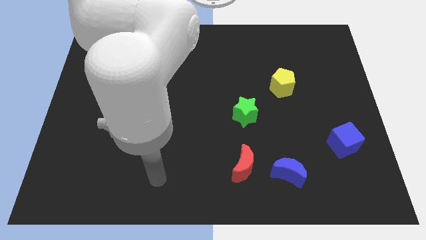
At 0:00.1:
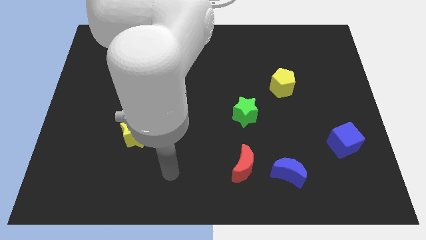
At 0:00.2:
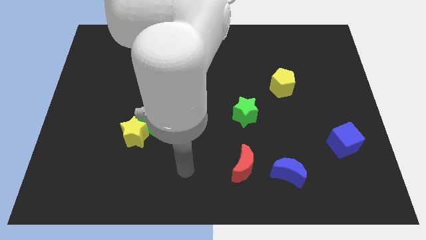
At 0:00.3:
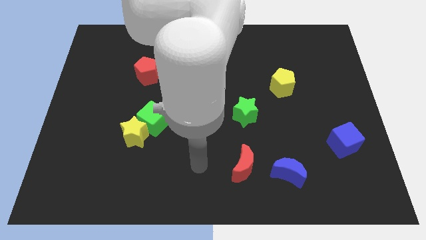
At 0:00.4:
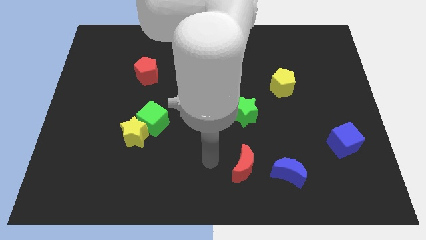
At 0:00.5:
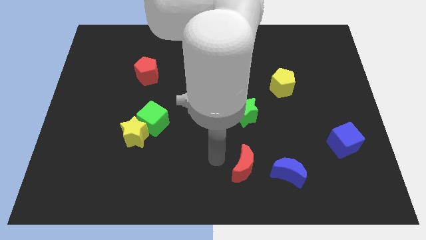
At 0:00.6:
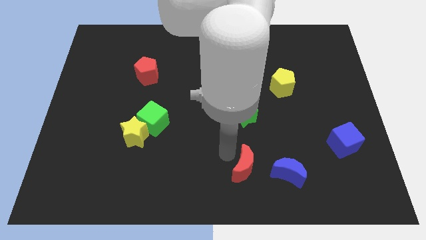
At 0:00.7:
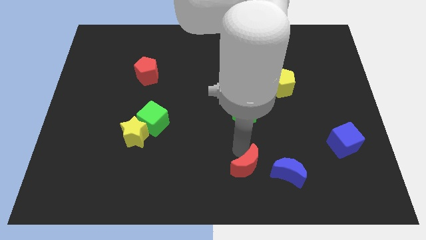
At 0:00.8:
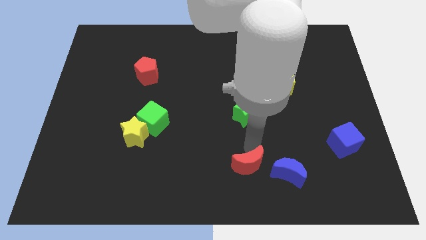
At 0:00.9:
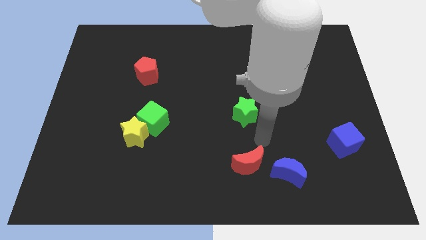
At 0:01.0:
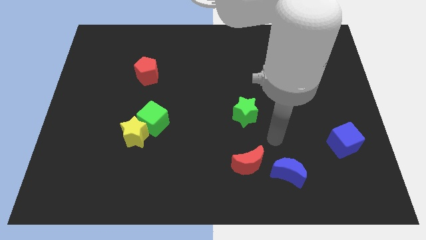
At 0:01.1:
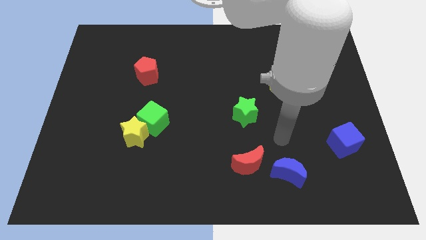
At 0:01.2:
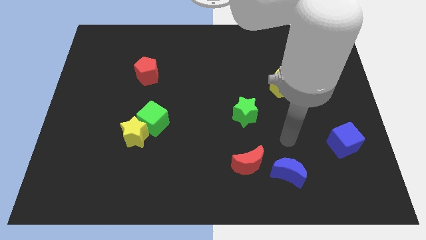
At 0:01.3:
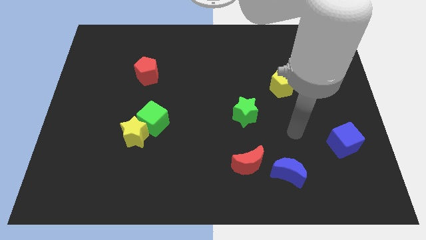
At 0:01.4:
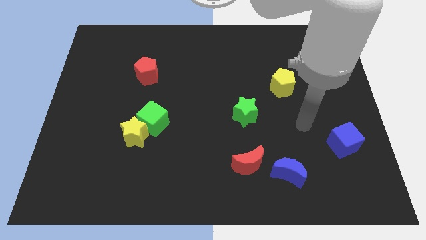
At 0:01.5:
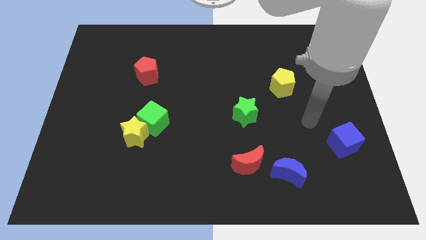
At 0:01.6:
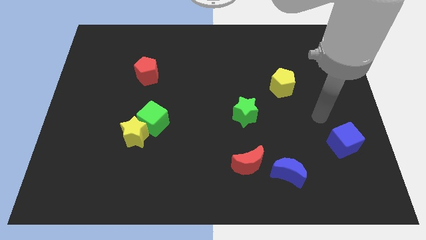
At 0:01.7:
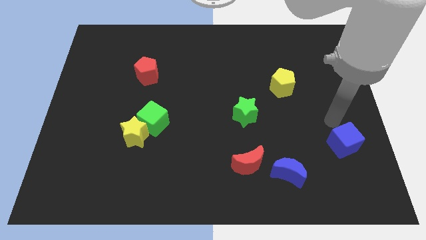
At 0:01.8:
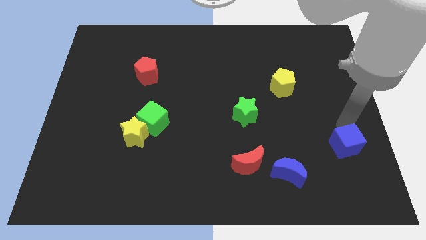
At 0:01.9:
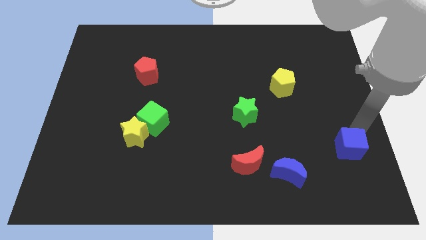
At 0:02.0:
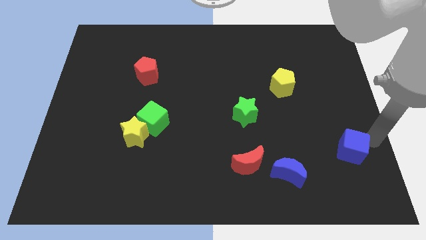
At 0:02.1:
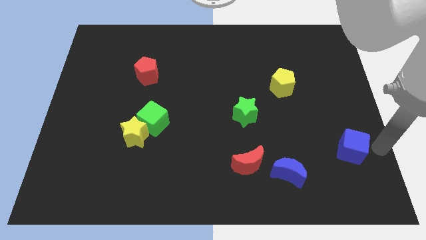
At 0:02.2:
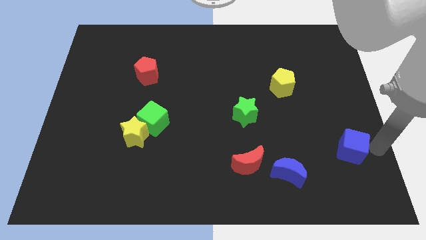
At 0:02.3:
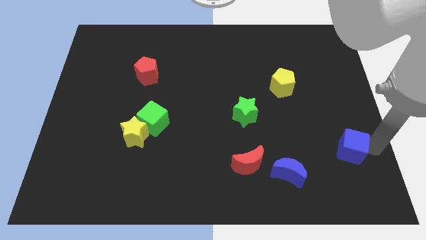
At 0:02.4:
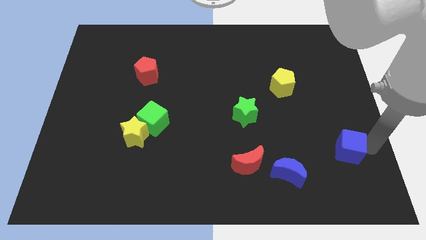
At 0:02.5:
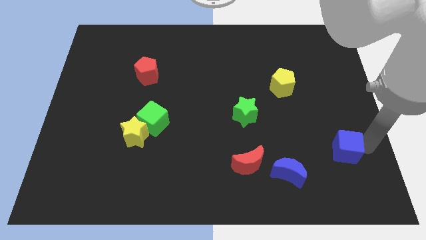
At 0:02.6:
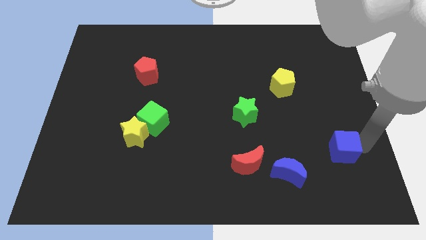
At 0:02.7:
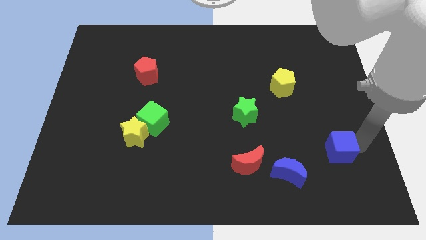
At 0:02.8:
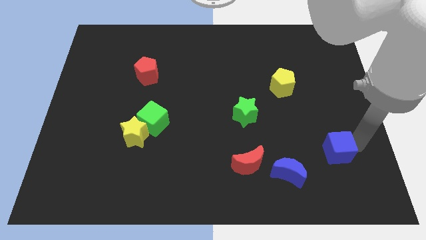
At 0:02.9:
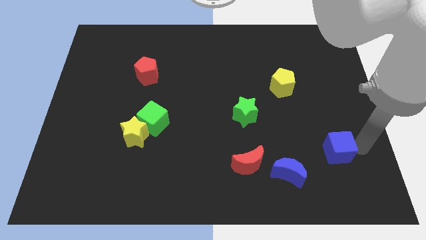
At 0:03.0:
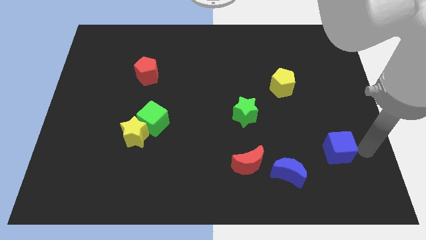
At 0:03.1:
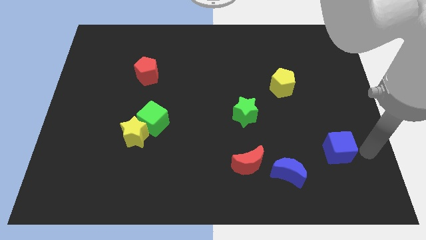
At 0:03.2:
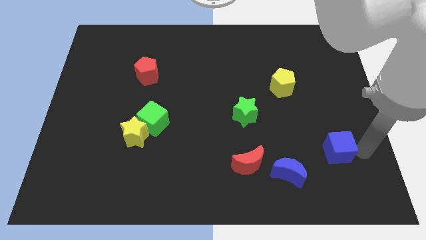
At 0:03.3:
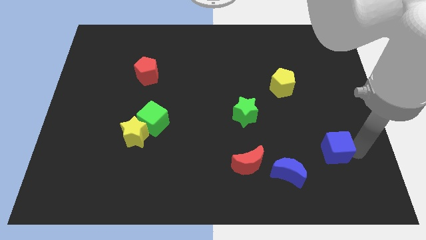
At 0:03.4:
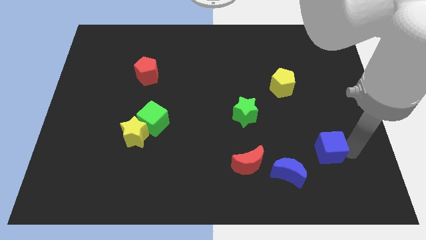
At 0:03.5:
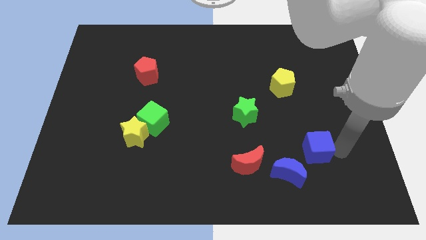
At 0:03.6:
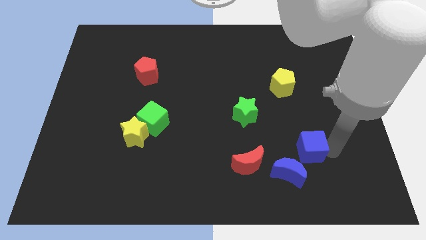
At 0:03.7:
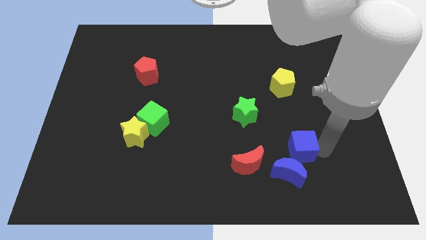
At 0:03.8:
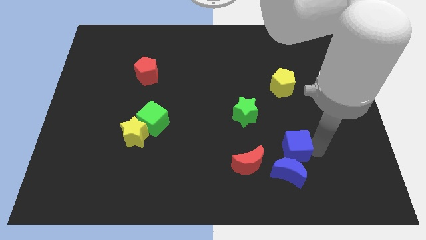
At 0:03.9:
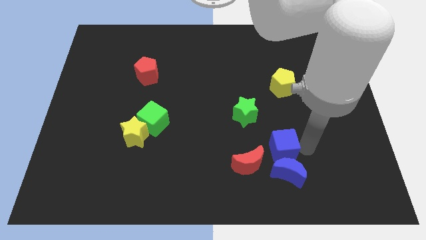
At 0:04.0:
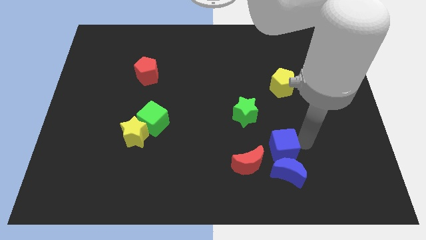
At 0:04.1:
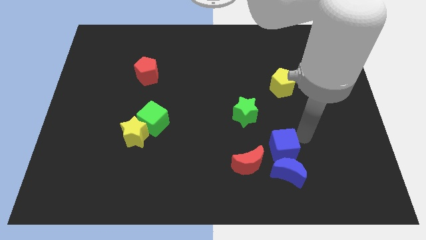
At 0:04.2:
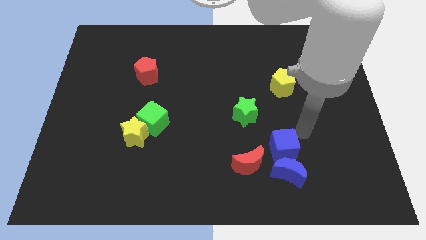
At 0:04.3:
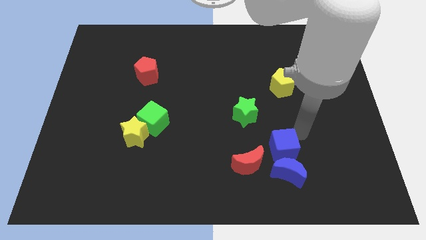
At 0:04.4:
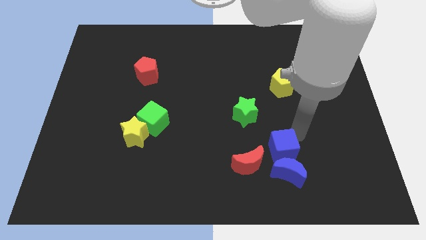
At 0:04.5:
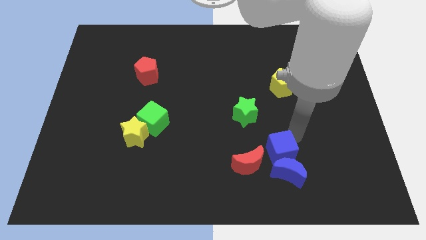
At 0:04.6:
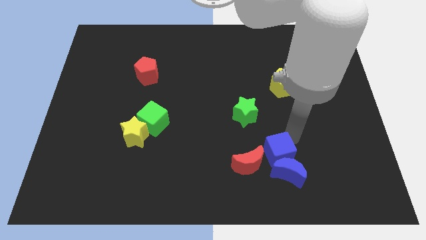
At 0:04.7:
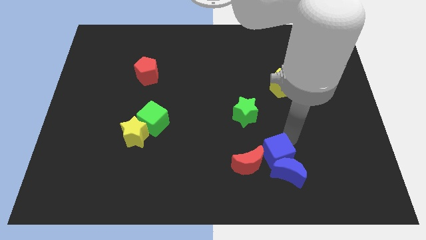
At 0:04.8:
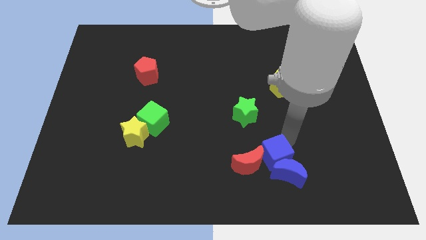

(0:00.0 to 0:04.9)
push the blue cube next to the red moon

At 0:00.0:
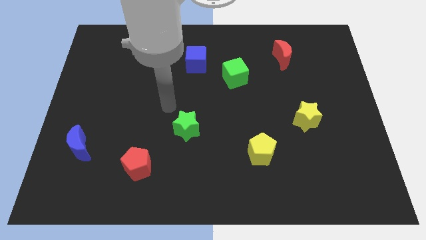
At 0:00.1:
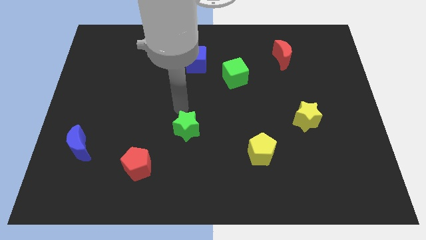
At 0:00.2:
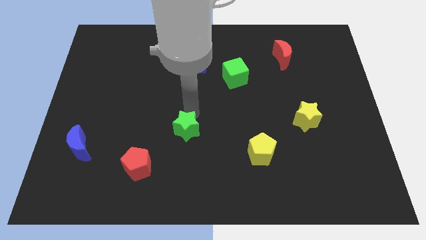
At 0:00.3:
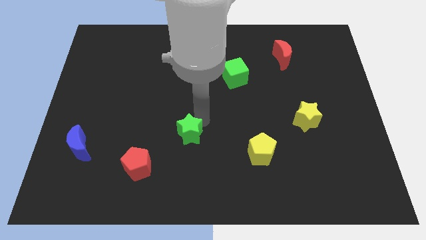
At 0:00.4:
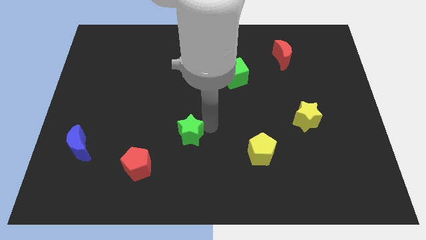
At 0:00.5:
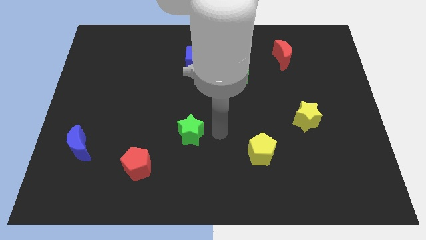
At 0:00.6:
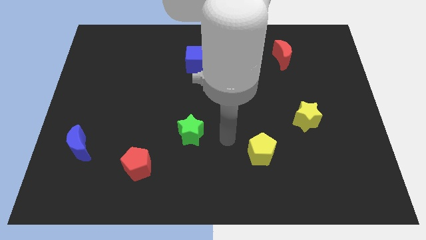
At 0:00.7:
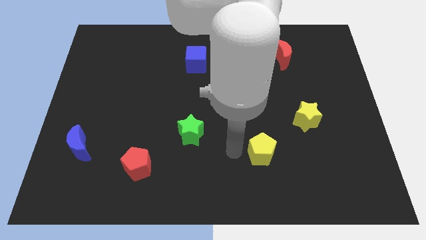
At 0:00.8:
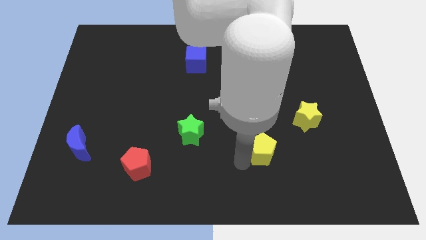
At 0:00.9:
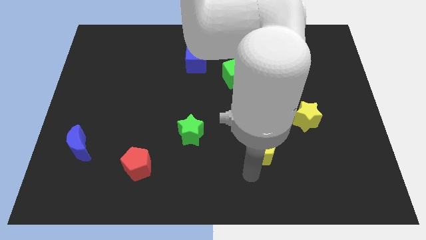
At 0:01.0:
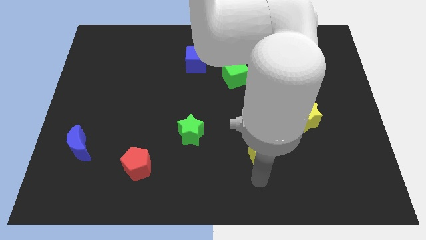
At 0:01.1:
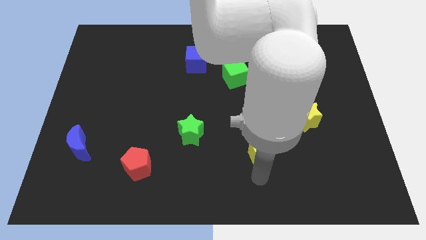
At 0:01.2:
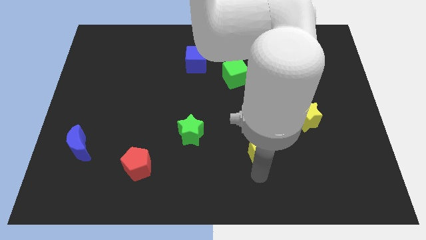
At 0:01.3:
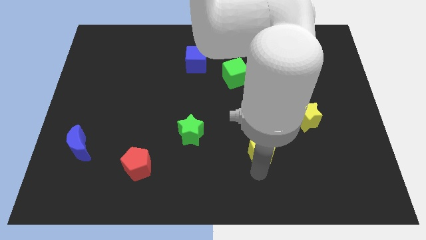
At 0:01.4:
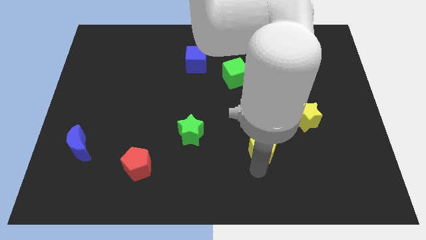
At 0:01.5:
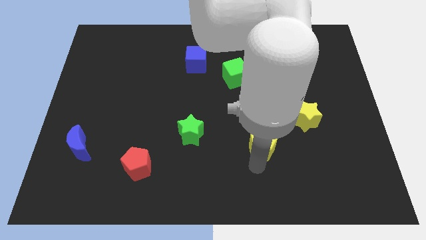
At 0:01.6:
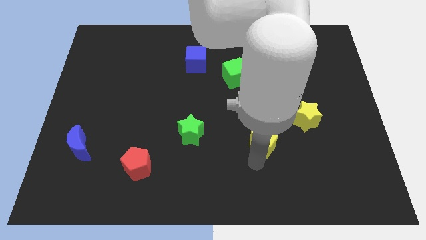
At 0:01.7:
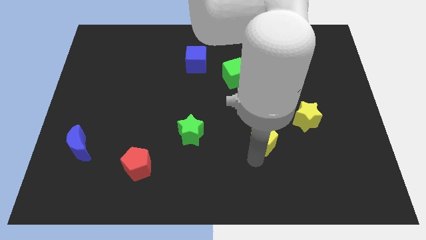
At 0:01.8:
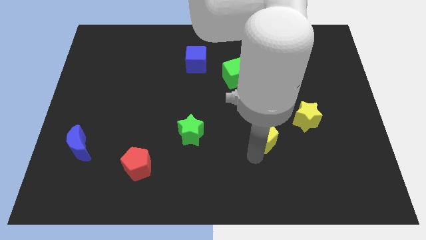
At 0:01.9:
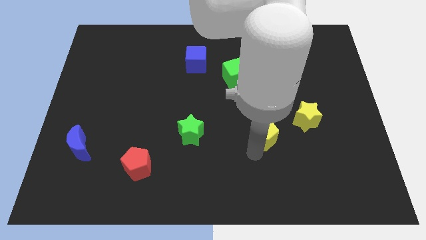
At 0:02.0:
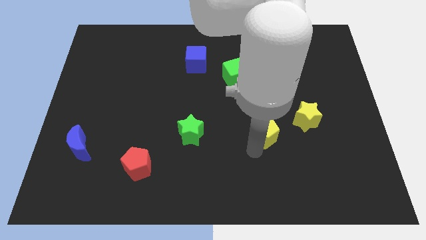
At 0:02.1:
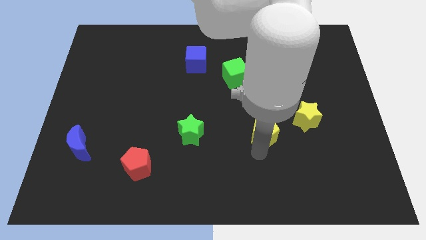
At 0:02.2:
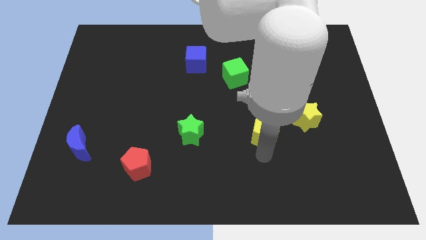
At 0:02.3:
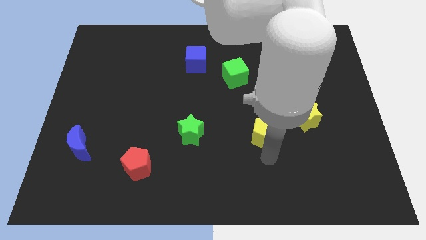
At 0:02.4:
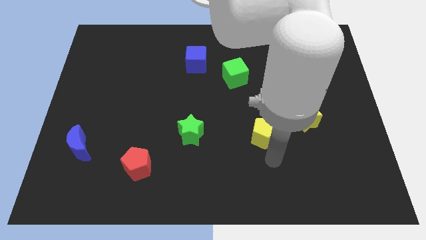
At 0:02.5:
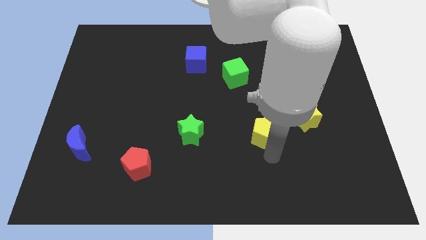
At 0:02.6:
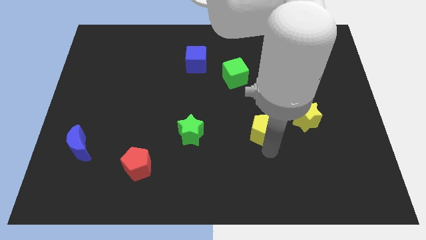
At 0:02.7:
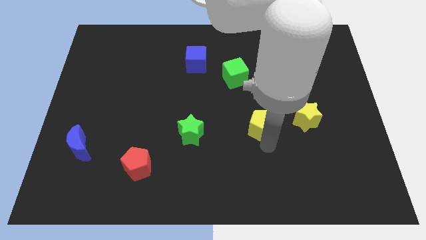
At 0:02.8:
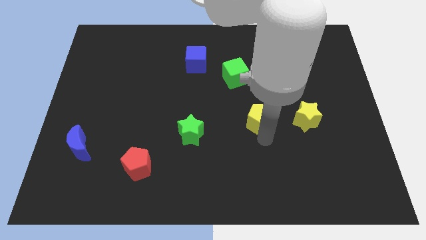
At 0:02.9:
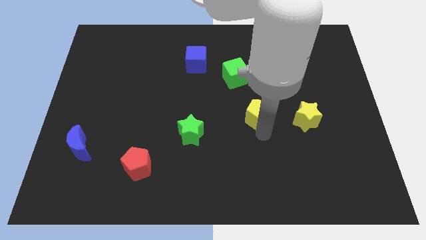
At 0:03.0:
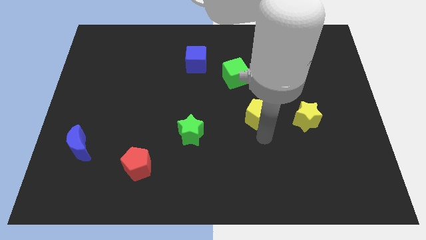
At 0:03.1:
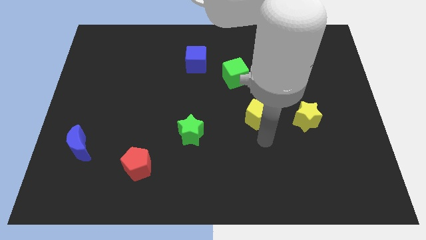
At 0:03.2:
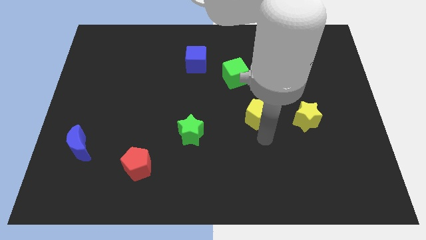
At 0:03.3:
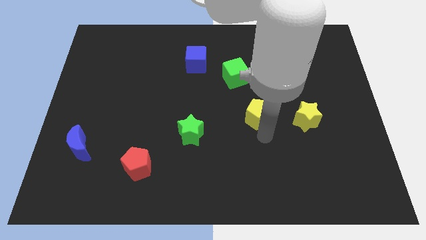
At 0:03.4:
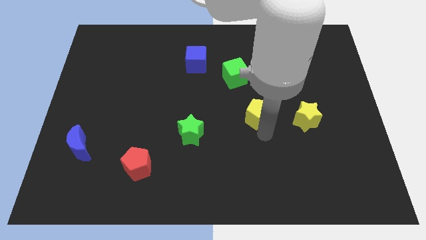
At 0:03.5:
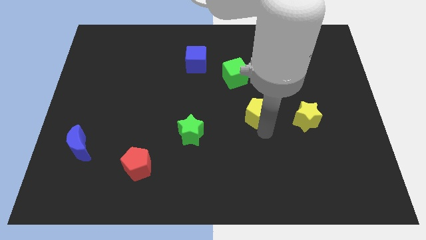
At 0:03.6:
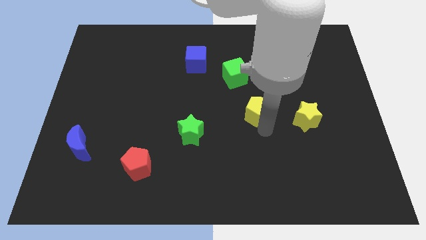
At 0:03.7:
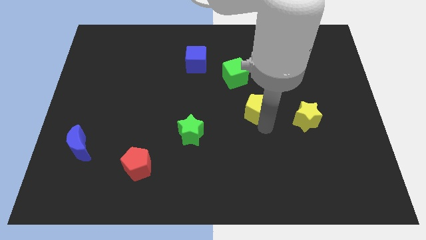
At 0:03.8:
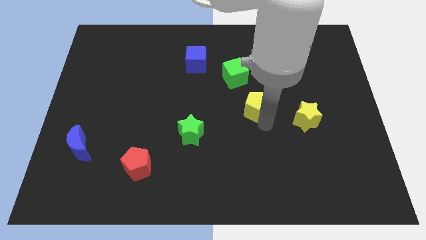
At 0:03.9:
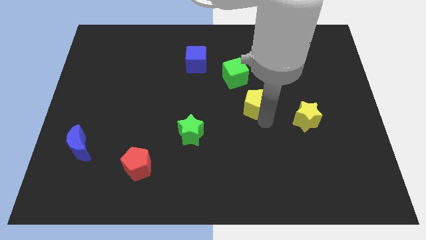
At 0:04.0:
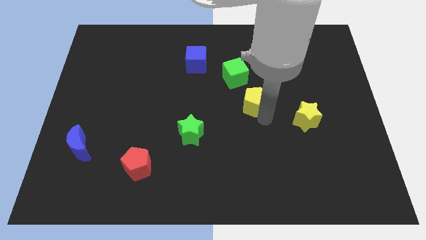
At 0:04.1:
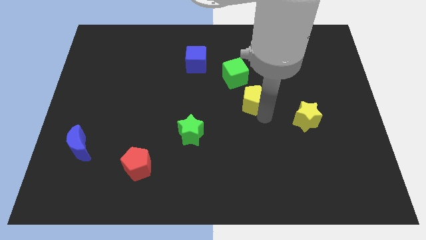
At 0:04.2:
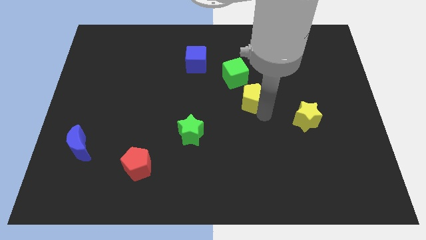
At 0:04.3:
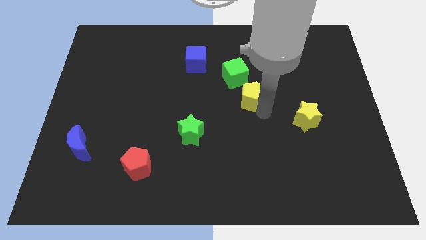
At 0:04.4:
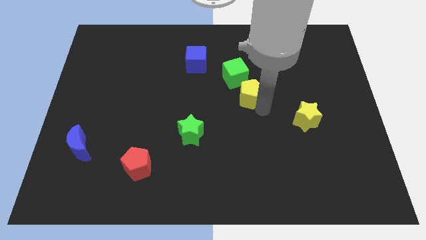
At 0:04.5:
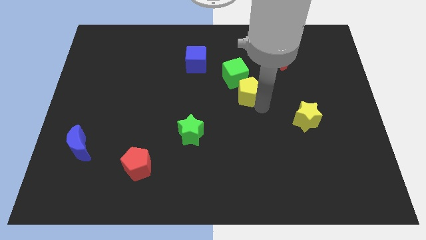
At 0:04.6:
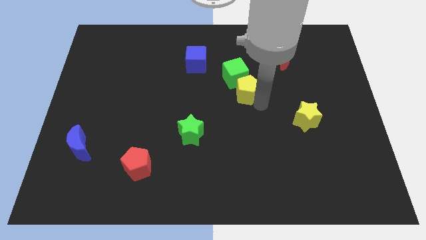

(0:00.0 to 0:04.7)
move the yellow pentagon towards the green cube
